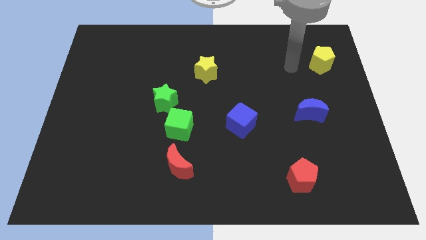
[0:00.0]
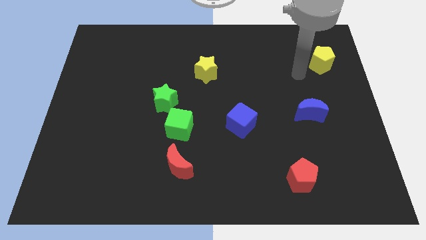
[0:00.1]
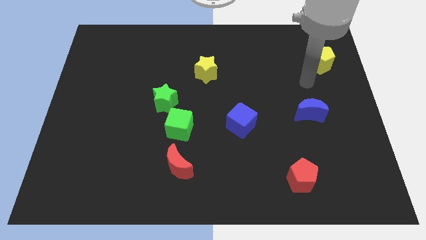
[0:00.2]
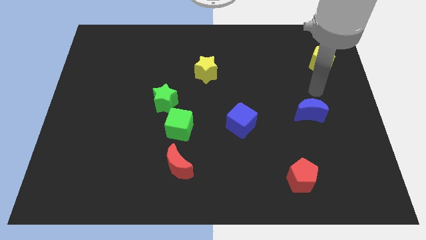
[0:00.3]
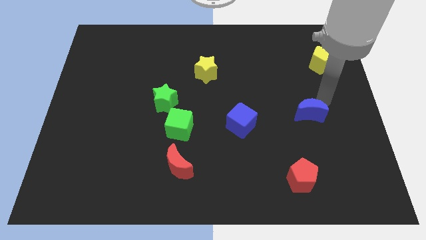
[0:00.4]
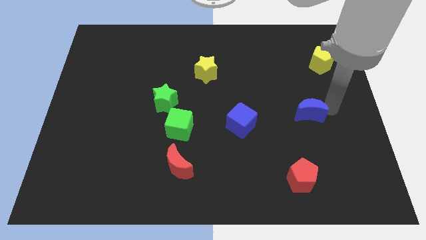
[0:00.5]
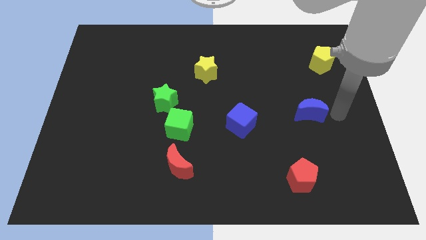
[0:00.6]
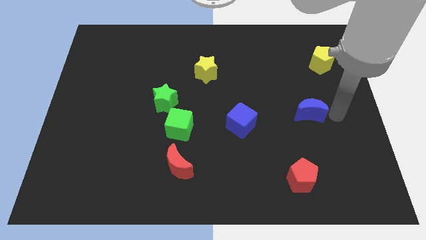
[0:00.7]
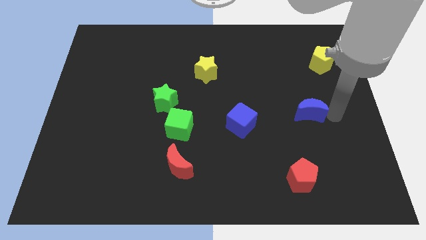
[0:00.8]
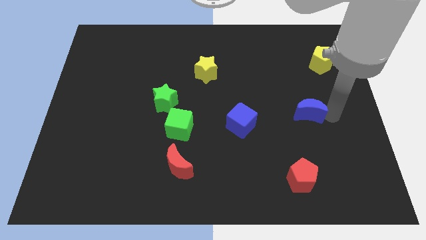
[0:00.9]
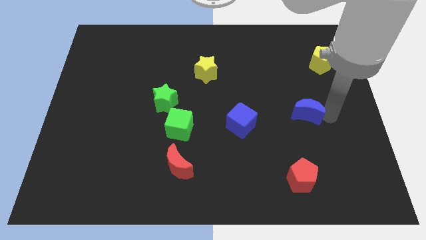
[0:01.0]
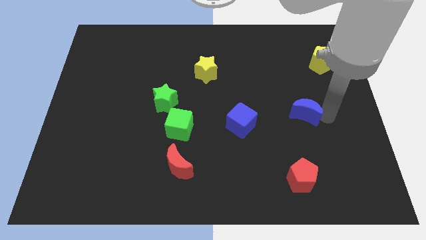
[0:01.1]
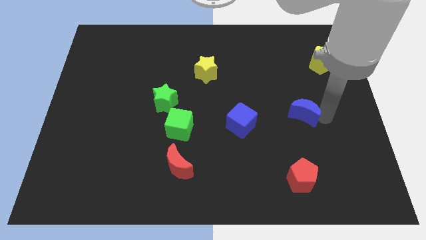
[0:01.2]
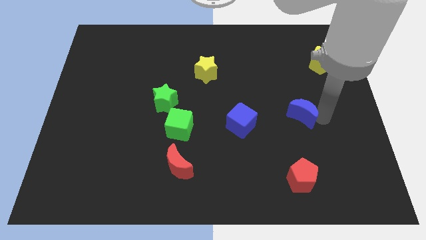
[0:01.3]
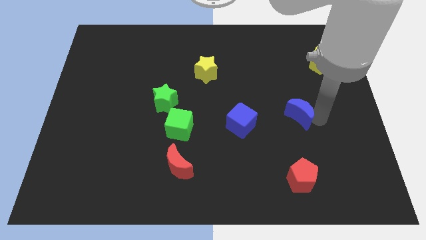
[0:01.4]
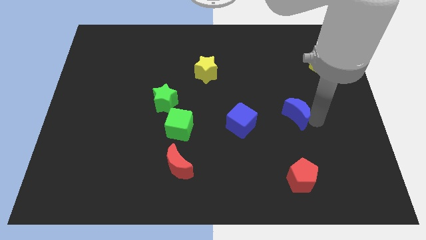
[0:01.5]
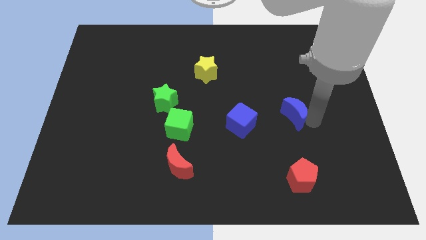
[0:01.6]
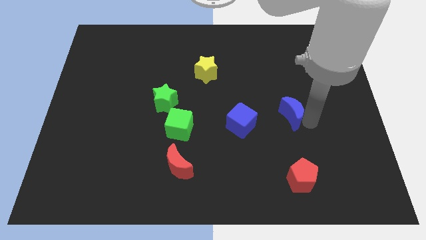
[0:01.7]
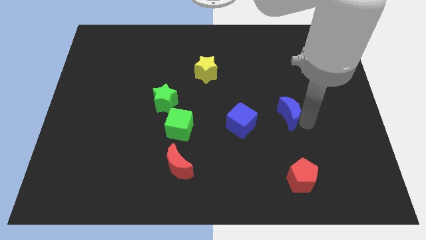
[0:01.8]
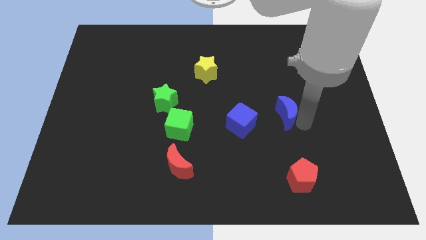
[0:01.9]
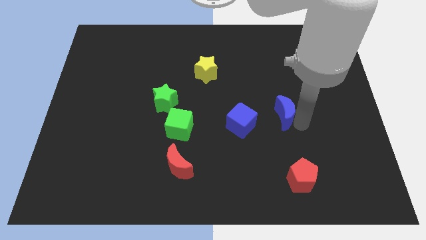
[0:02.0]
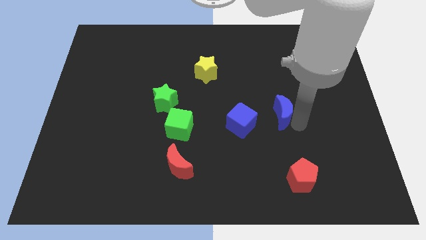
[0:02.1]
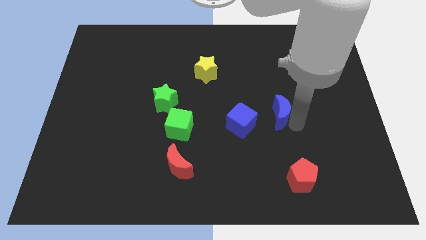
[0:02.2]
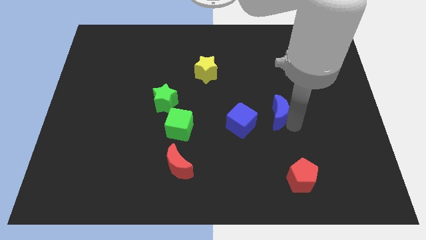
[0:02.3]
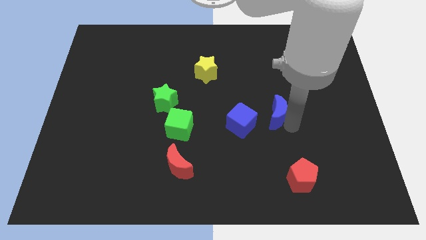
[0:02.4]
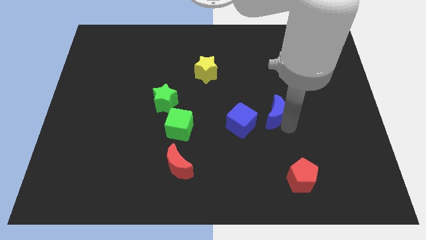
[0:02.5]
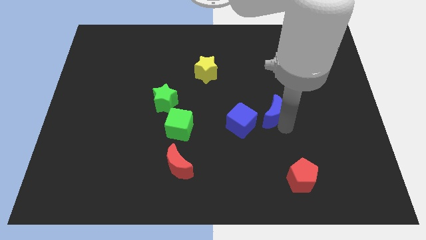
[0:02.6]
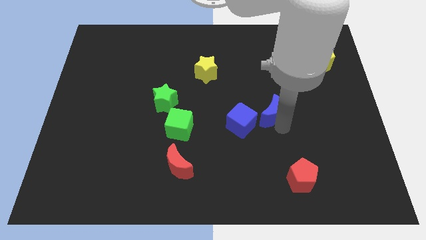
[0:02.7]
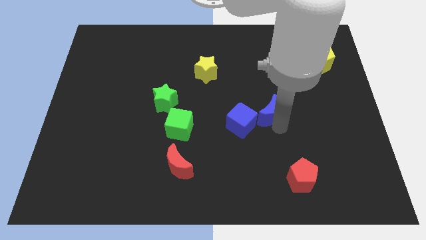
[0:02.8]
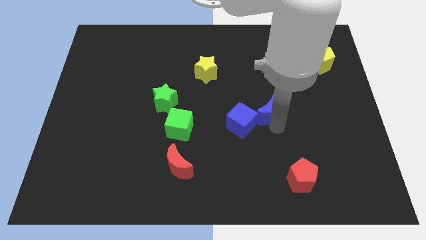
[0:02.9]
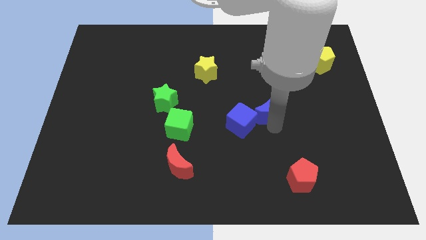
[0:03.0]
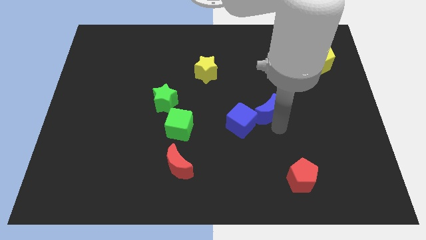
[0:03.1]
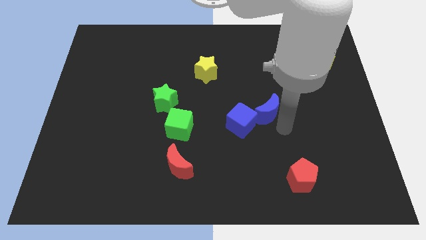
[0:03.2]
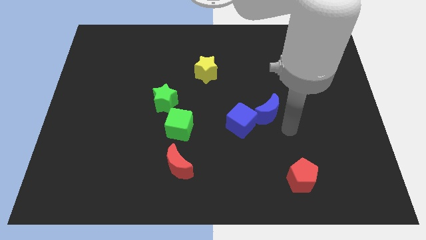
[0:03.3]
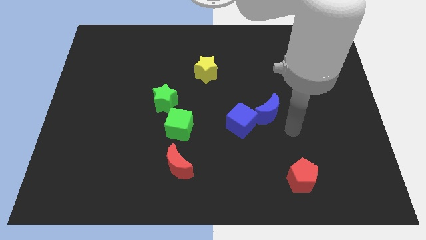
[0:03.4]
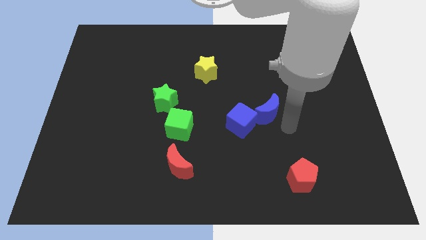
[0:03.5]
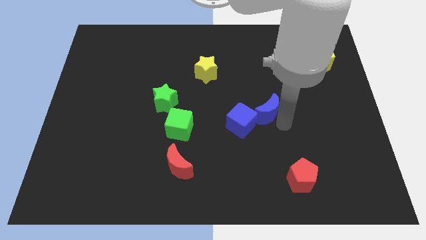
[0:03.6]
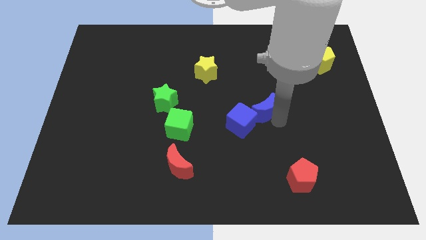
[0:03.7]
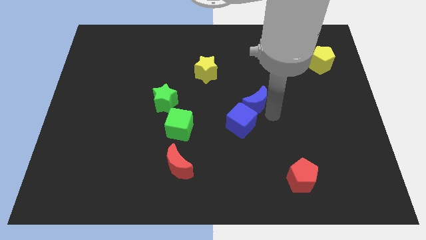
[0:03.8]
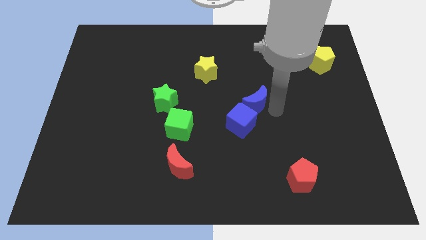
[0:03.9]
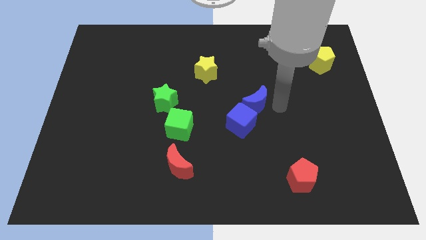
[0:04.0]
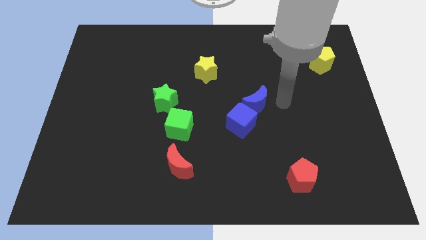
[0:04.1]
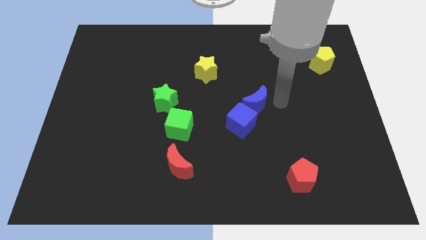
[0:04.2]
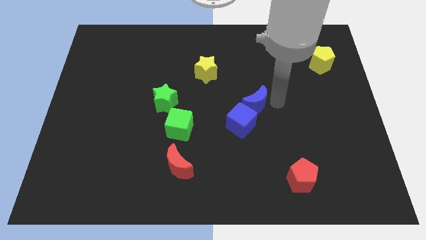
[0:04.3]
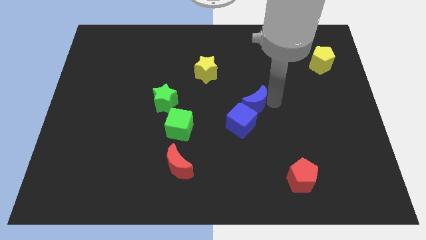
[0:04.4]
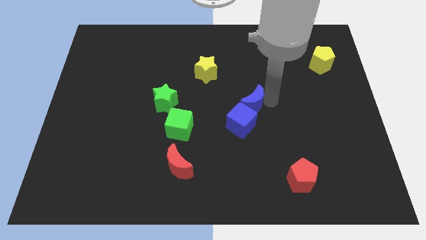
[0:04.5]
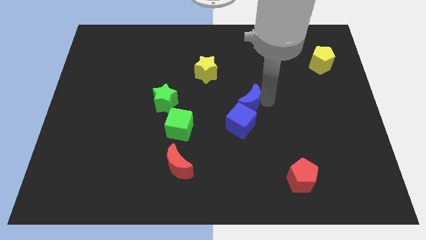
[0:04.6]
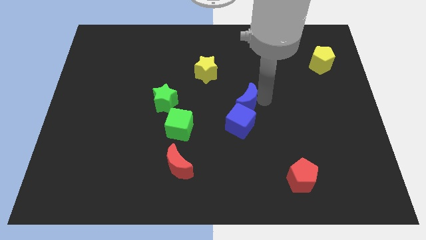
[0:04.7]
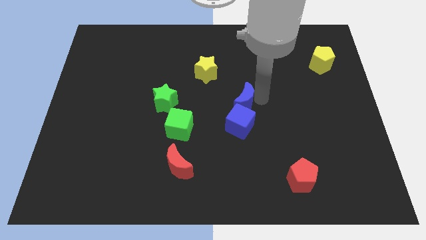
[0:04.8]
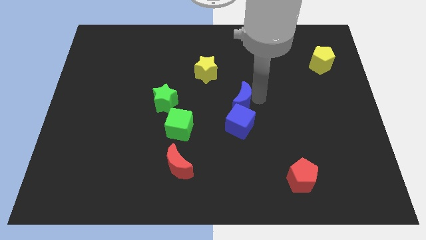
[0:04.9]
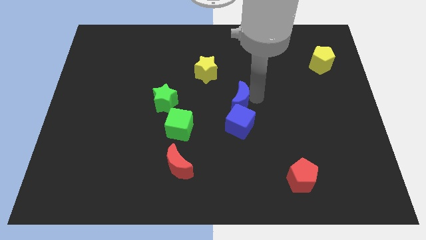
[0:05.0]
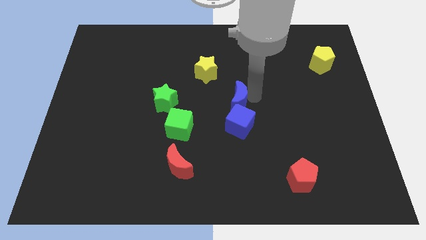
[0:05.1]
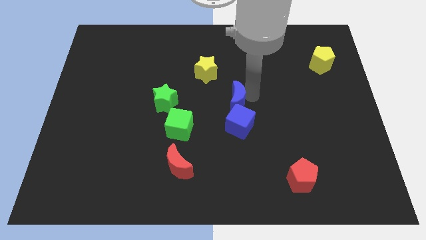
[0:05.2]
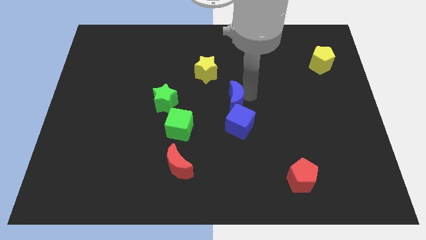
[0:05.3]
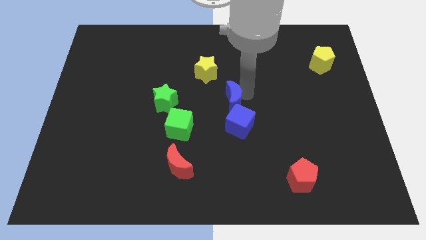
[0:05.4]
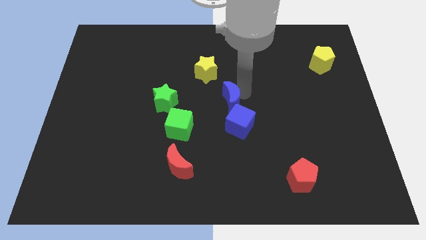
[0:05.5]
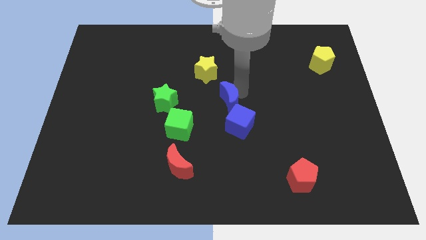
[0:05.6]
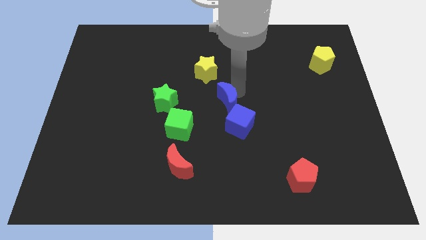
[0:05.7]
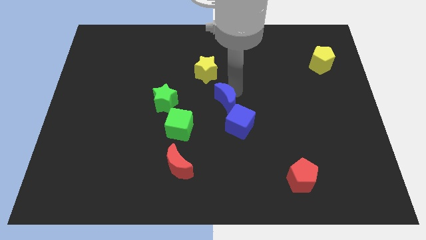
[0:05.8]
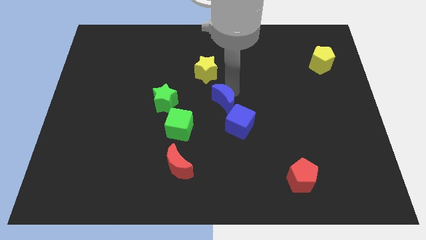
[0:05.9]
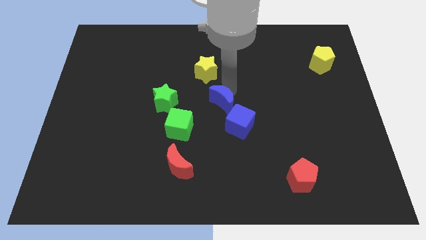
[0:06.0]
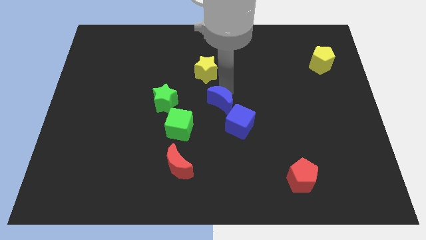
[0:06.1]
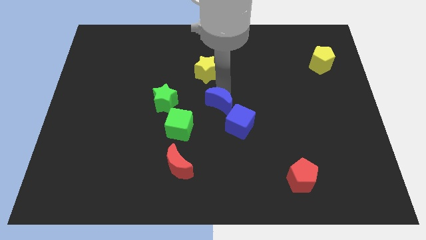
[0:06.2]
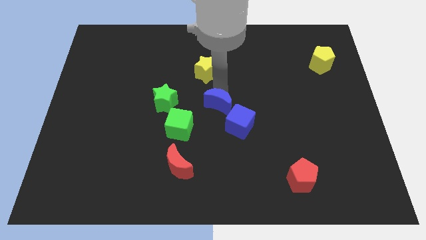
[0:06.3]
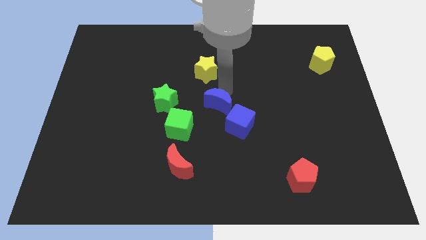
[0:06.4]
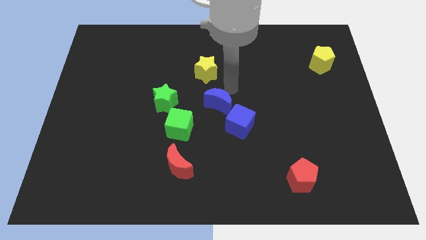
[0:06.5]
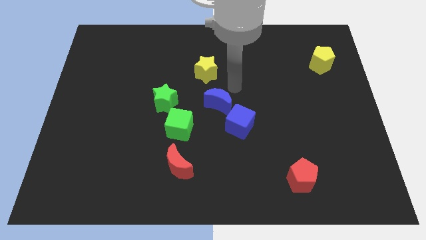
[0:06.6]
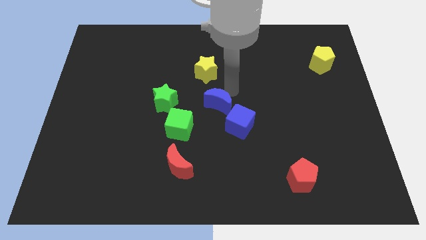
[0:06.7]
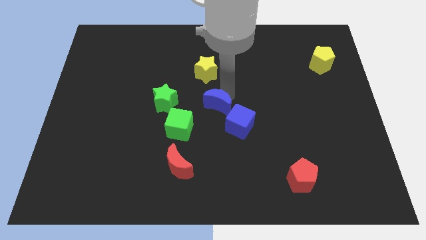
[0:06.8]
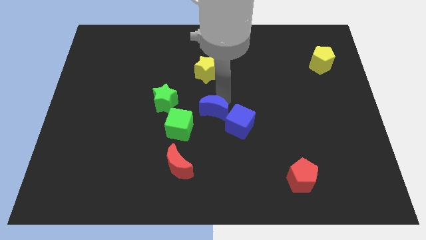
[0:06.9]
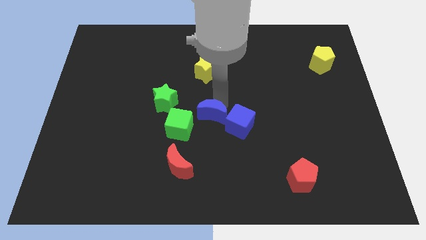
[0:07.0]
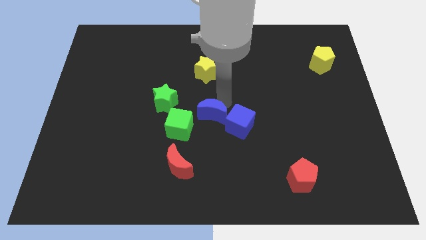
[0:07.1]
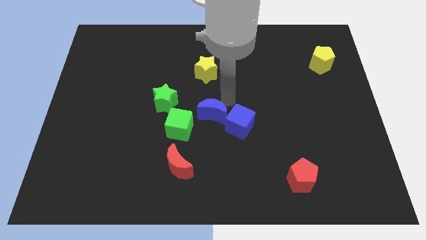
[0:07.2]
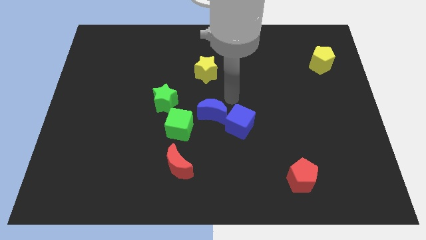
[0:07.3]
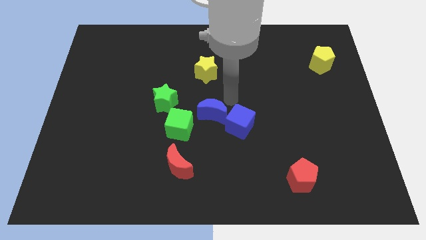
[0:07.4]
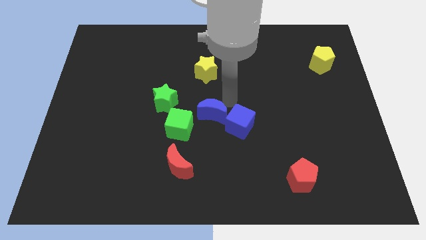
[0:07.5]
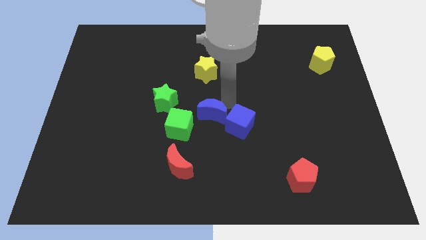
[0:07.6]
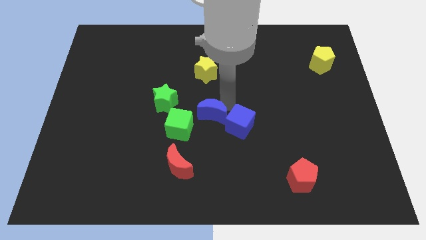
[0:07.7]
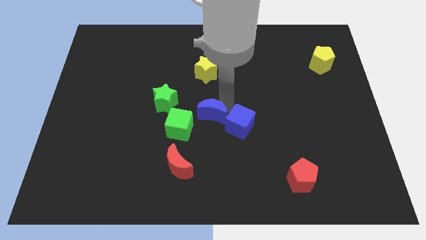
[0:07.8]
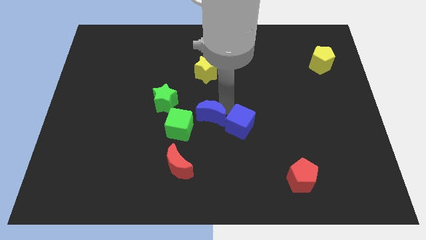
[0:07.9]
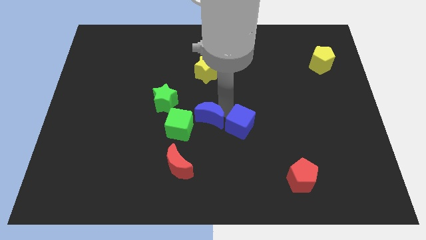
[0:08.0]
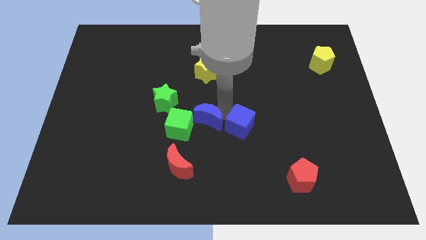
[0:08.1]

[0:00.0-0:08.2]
push the blue moon diagonally down and to the right of the green star
